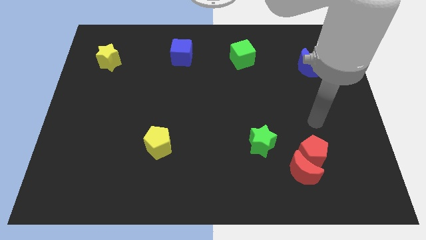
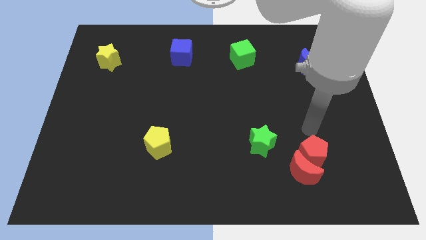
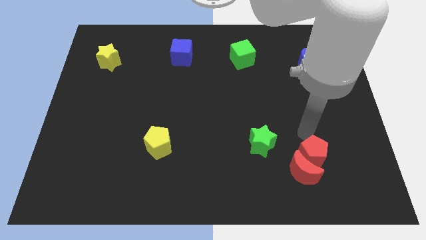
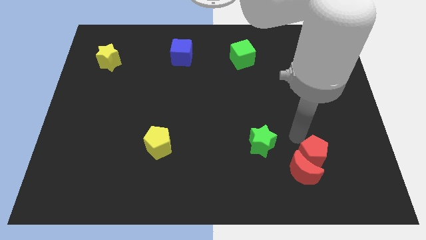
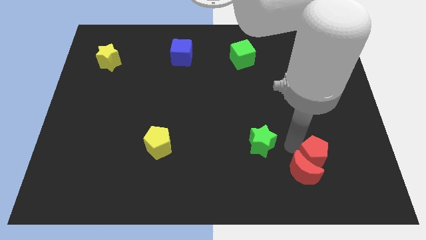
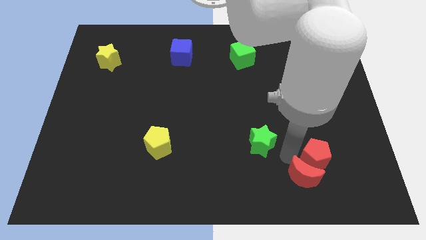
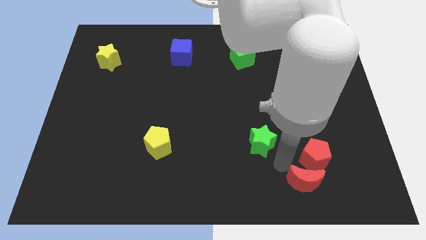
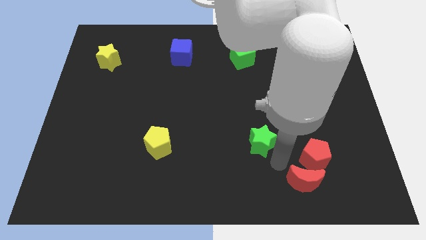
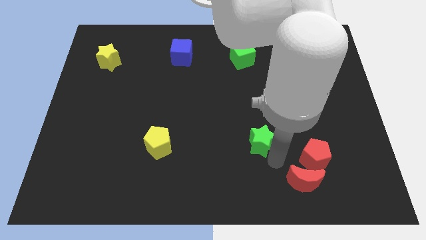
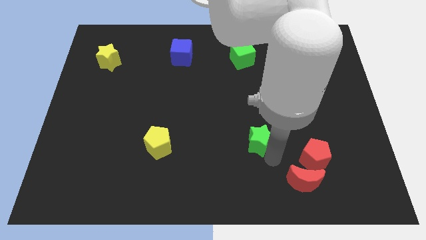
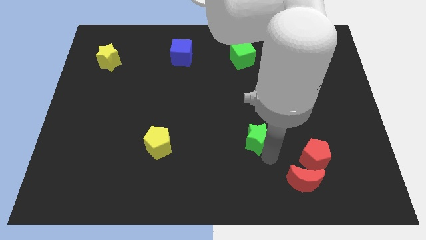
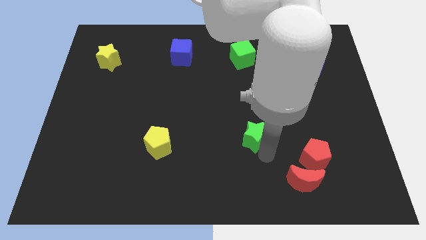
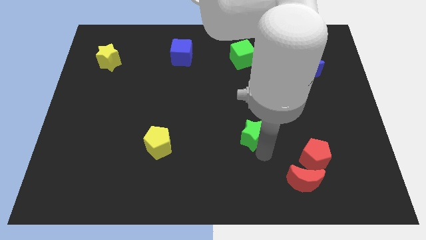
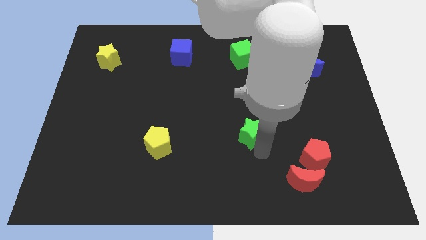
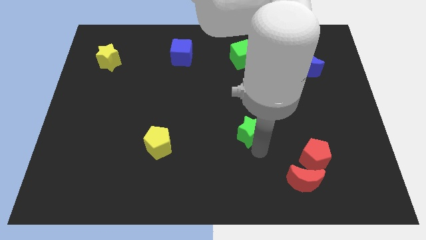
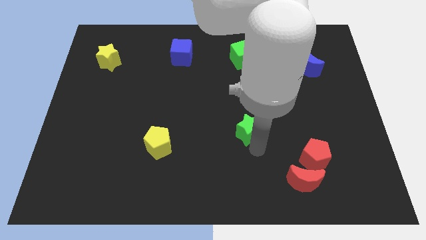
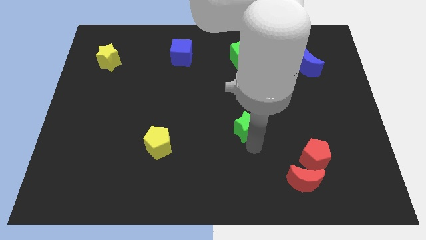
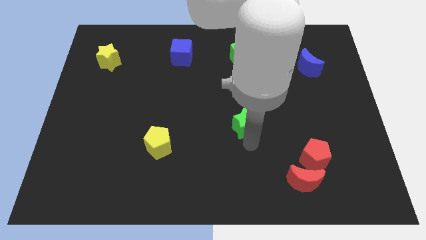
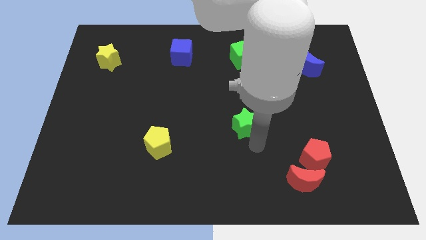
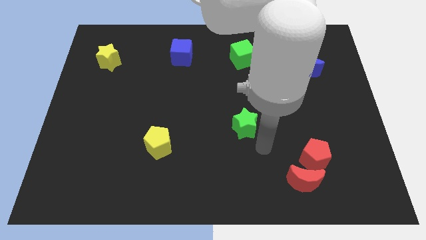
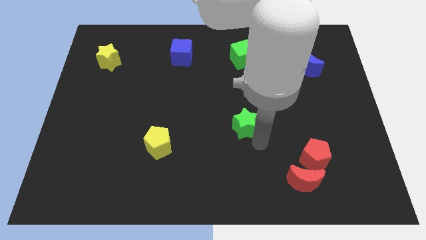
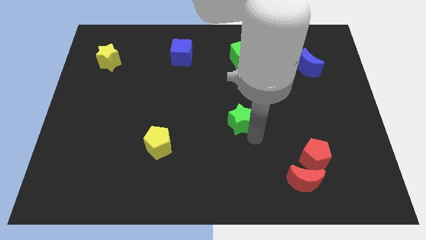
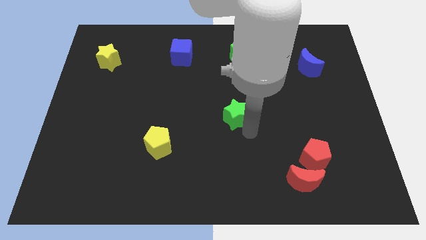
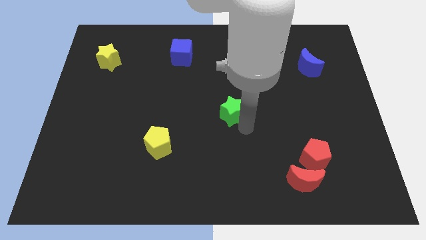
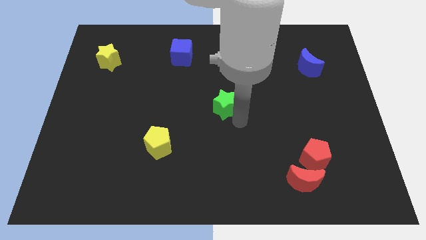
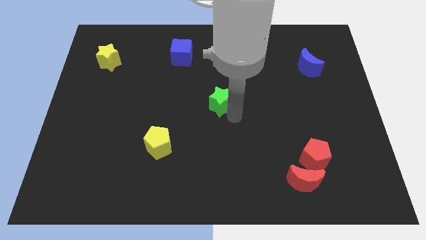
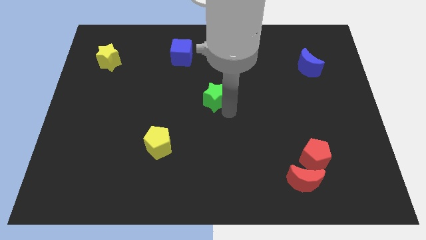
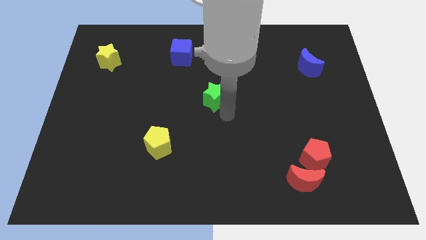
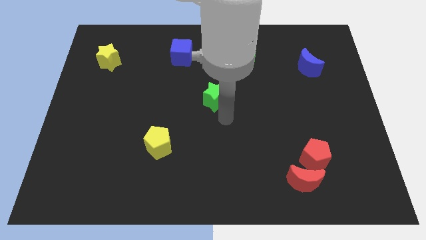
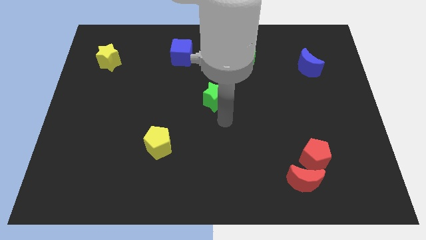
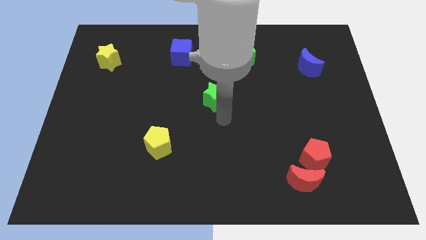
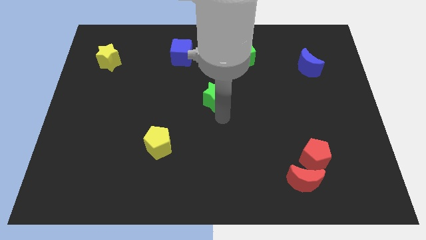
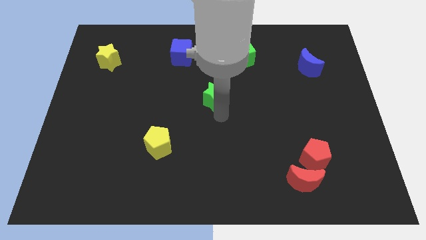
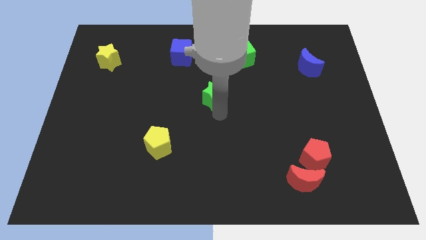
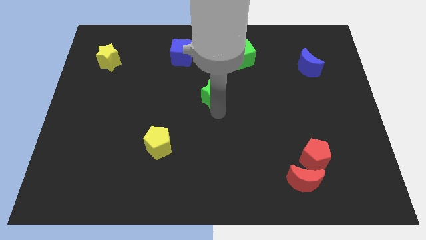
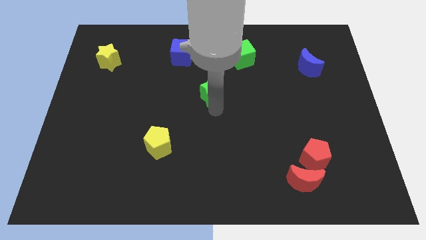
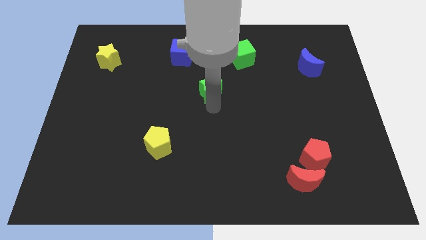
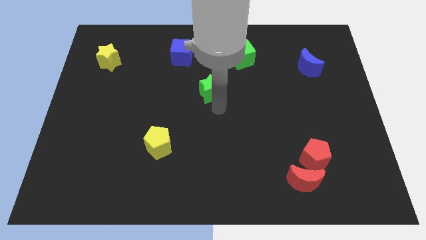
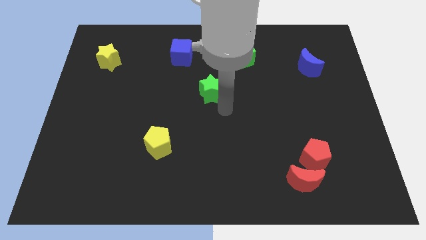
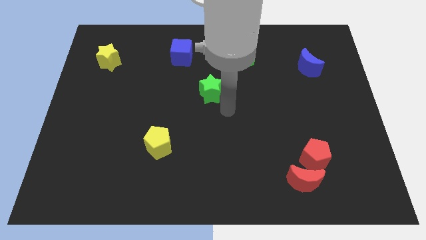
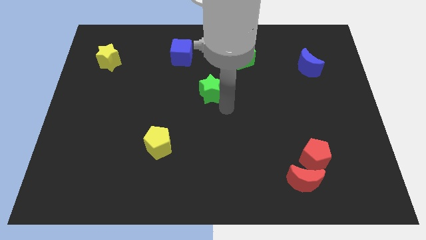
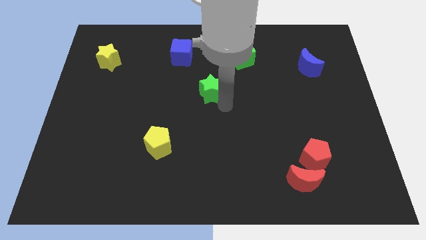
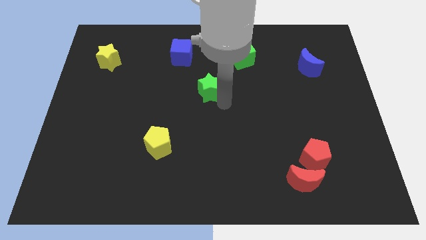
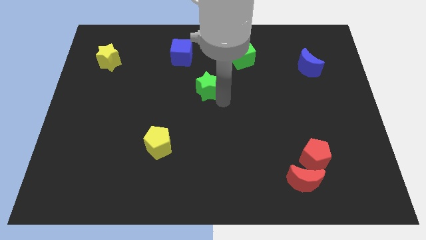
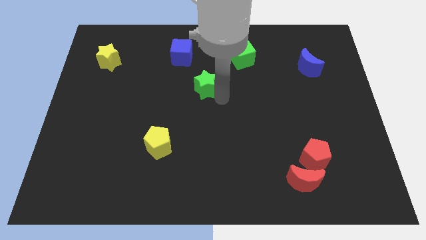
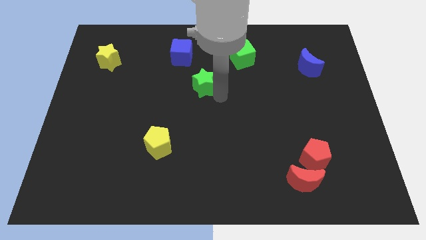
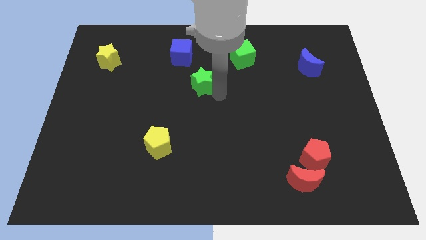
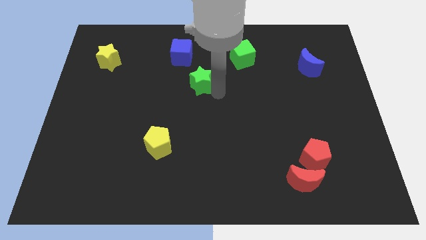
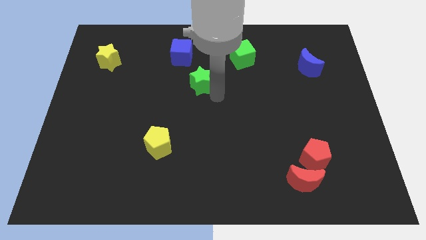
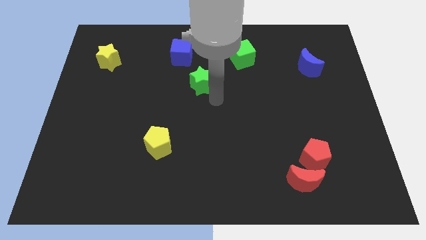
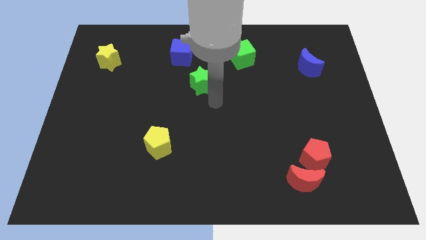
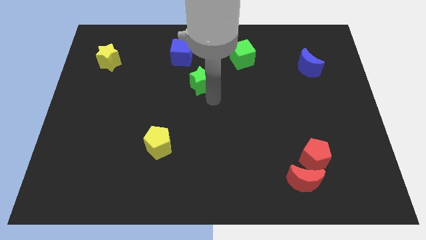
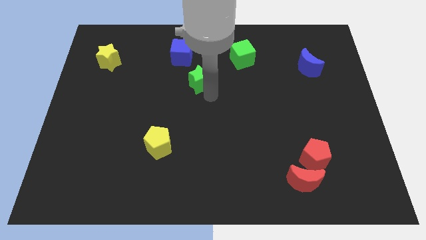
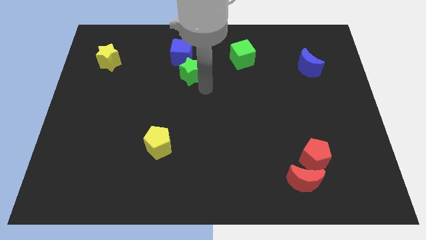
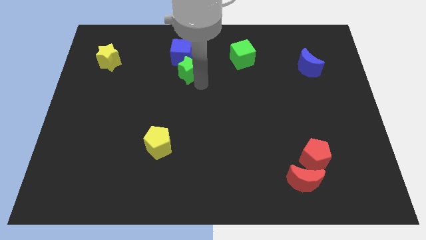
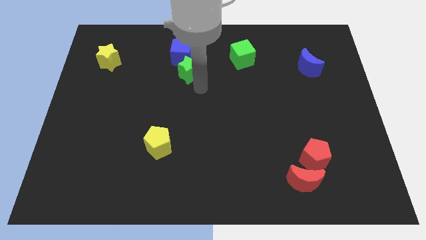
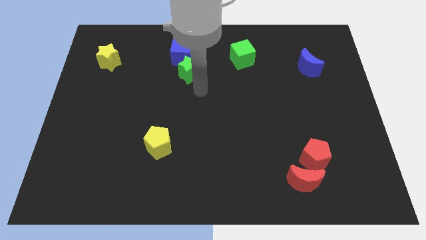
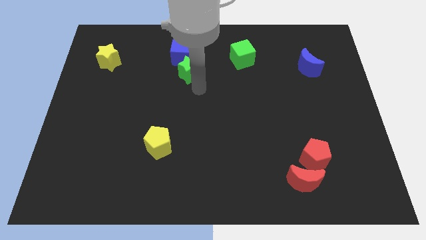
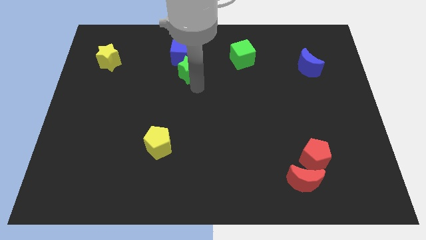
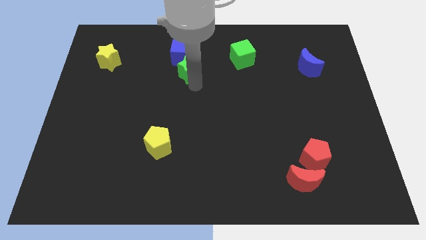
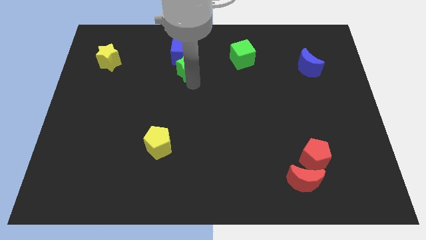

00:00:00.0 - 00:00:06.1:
push the green star next to the blue cube

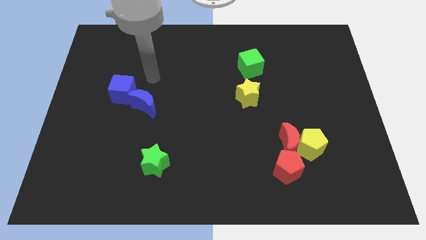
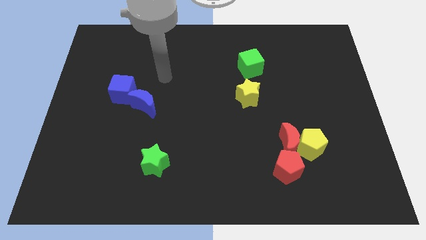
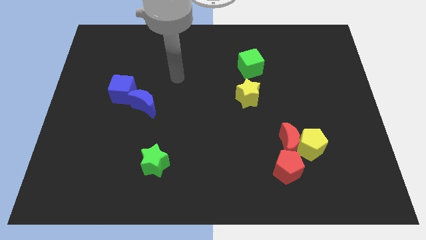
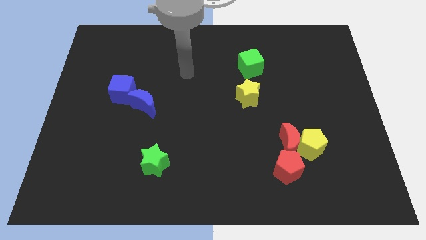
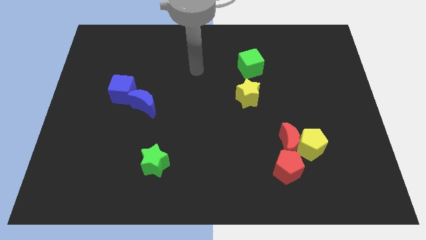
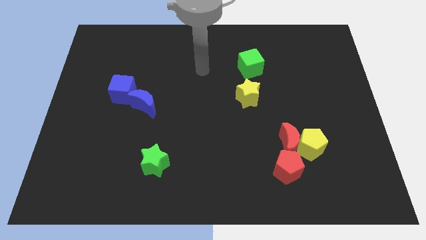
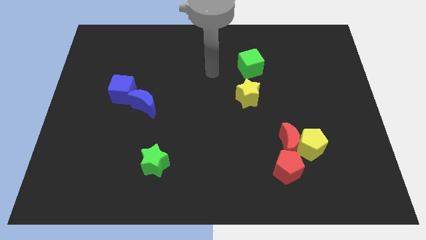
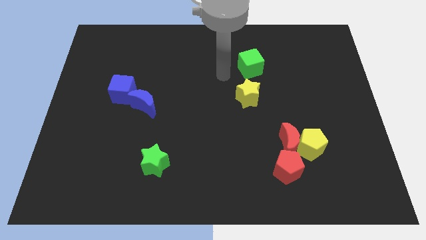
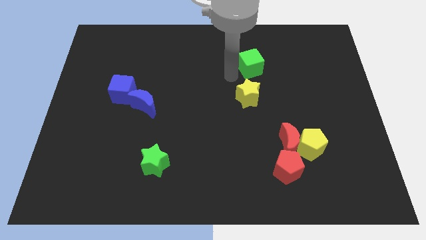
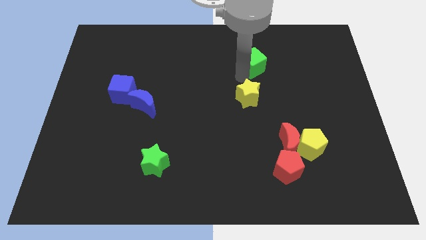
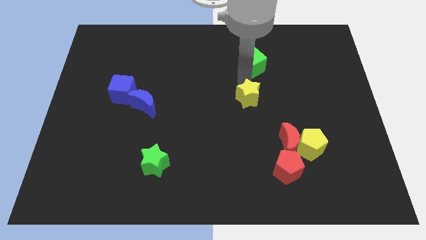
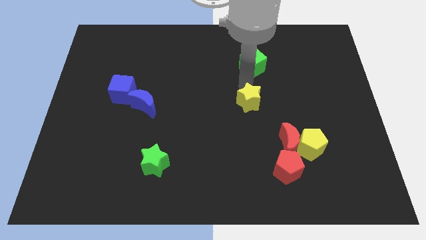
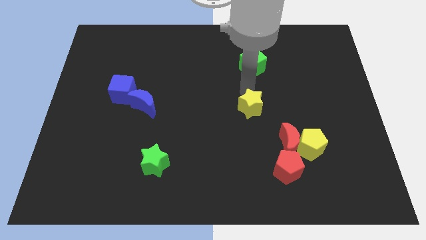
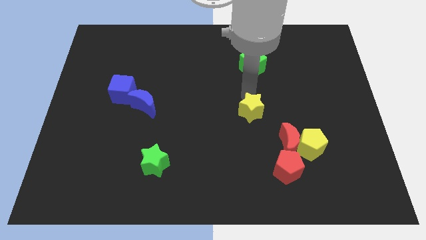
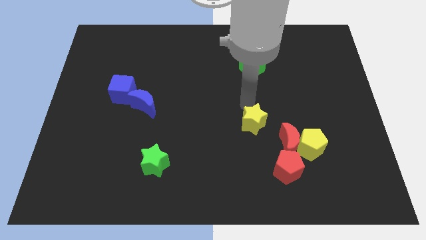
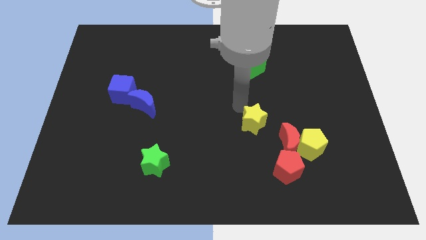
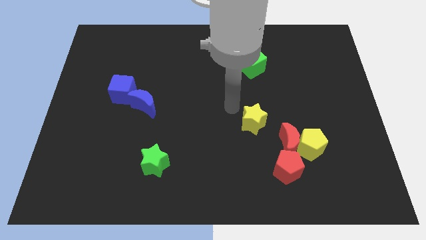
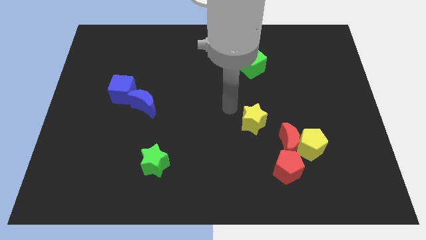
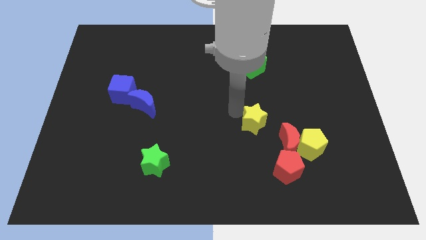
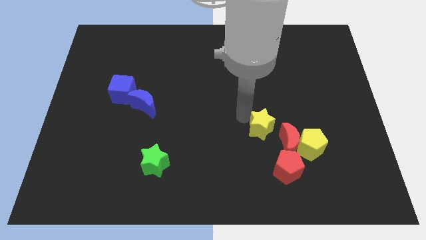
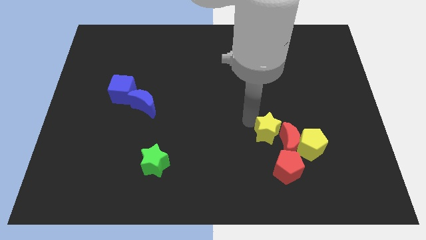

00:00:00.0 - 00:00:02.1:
put the yellow star towards the red moon
